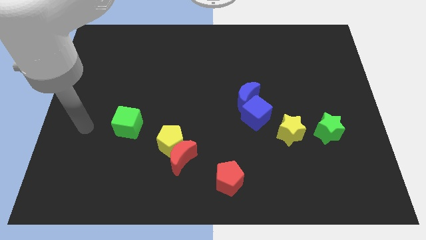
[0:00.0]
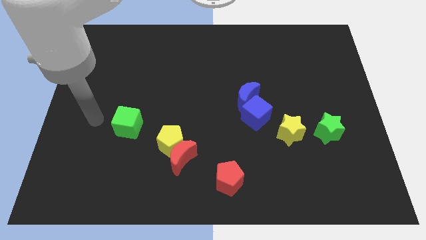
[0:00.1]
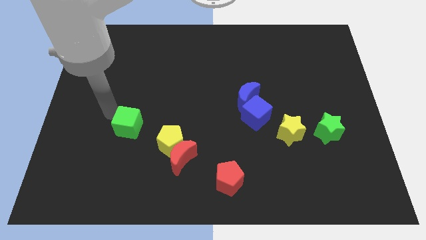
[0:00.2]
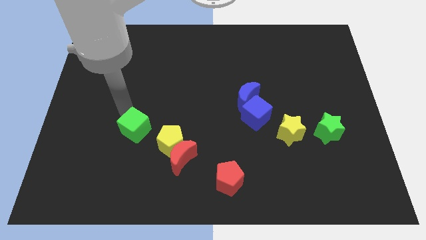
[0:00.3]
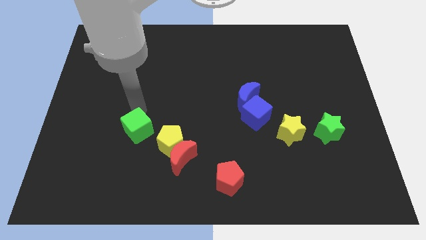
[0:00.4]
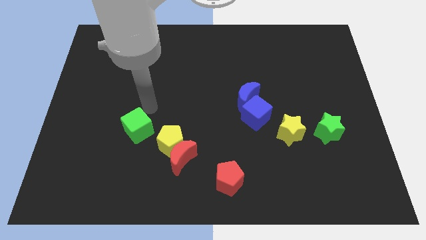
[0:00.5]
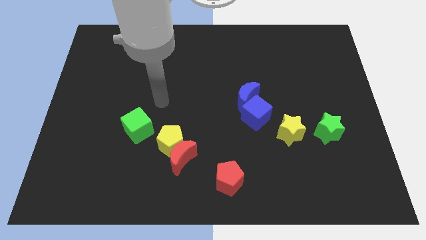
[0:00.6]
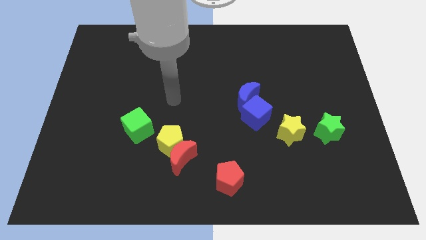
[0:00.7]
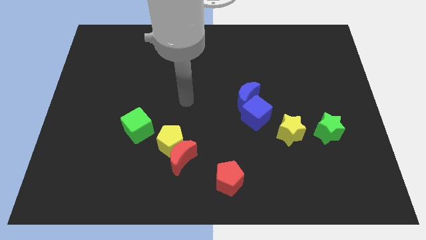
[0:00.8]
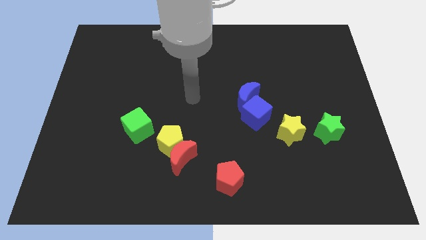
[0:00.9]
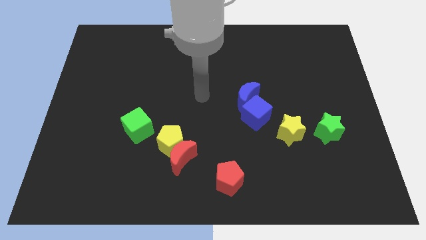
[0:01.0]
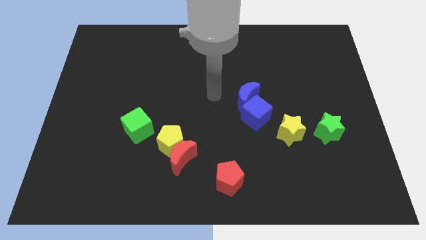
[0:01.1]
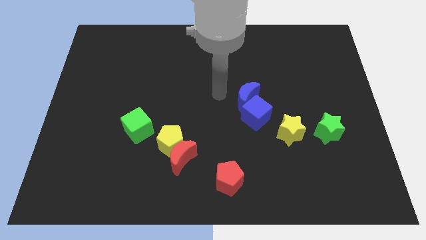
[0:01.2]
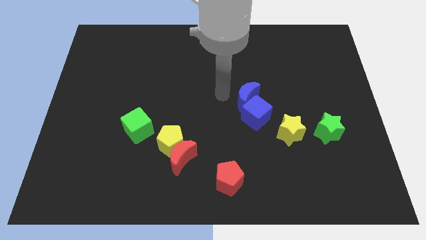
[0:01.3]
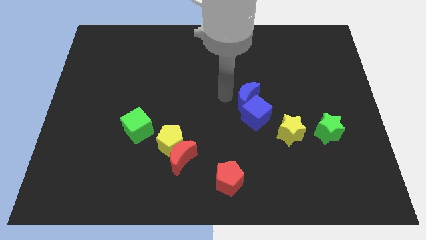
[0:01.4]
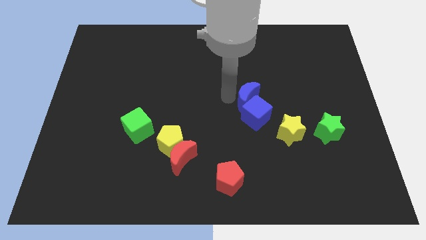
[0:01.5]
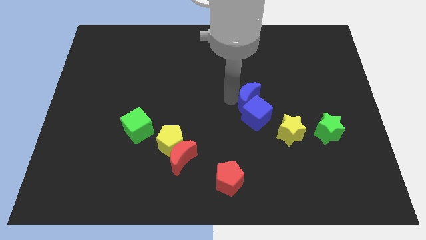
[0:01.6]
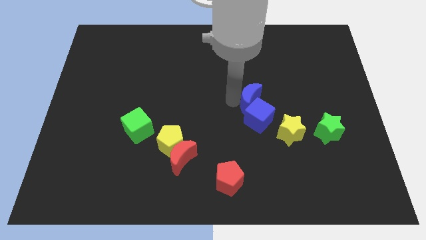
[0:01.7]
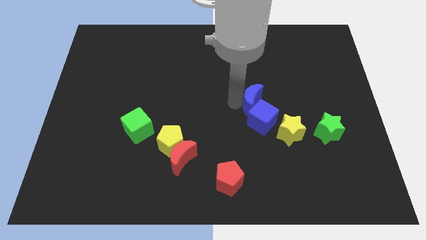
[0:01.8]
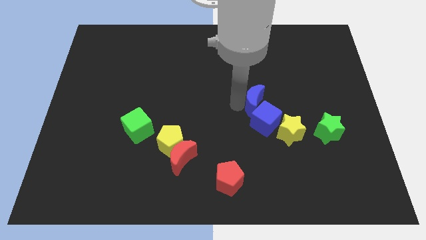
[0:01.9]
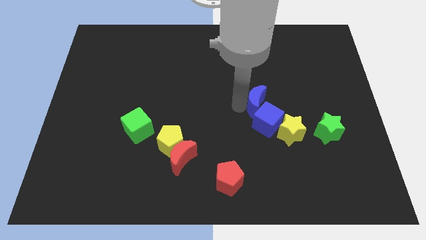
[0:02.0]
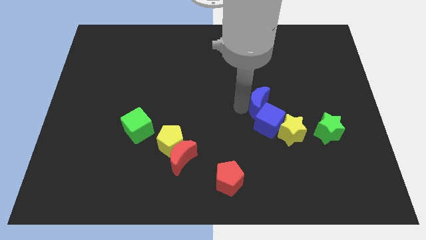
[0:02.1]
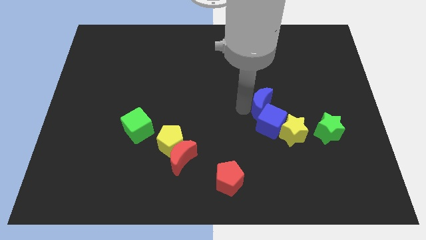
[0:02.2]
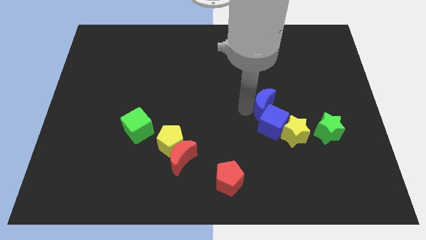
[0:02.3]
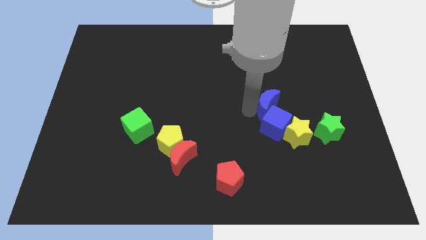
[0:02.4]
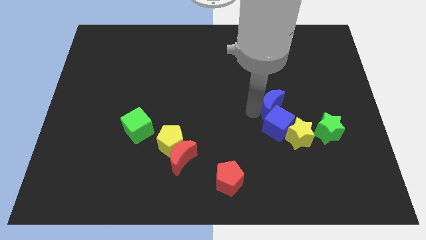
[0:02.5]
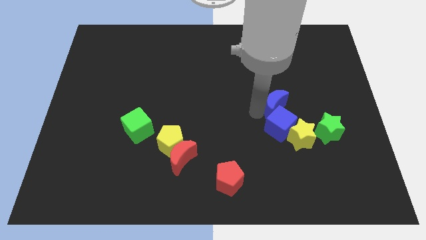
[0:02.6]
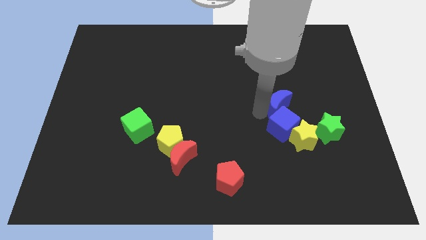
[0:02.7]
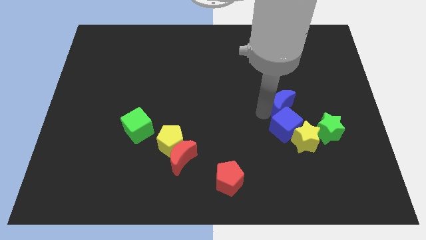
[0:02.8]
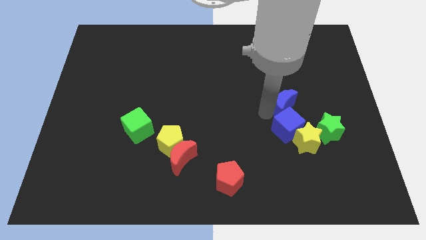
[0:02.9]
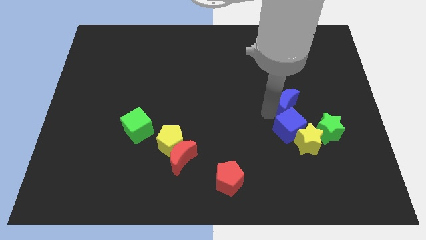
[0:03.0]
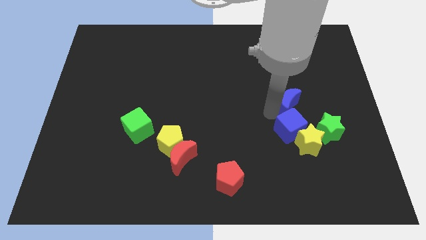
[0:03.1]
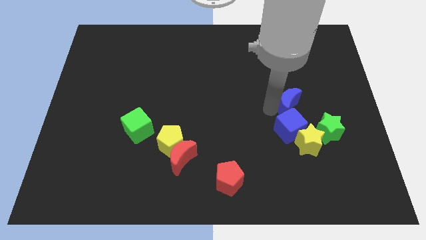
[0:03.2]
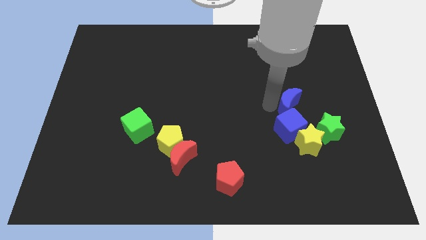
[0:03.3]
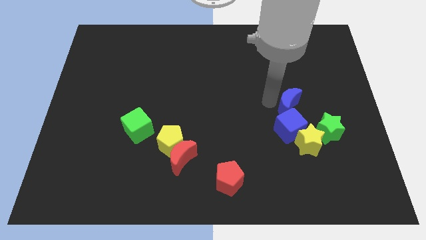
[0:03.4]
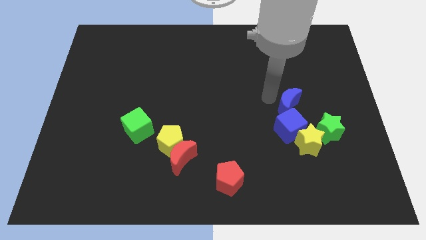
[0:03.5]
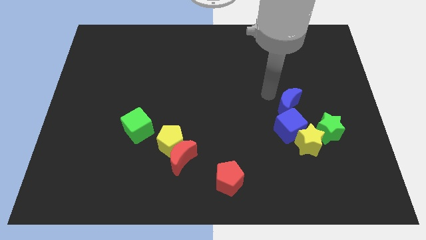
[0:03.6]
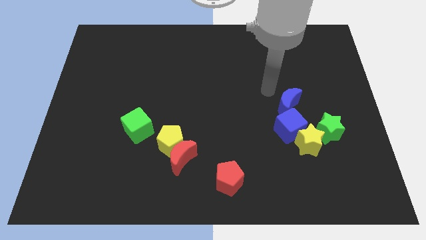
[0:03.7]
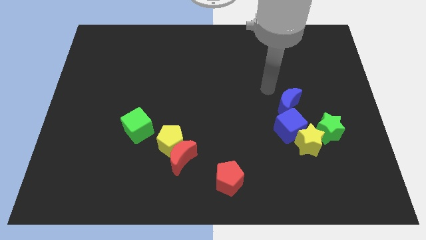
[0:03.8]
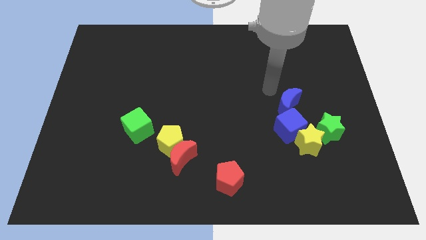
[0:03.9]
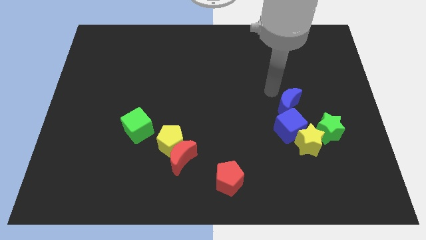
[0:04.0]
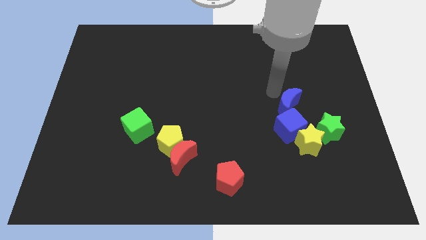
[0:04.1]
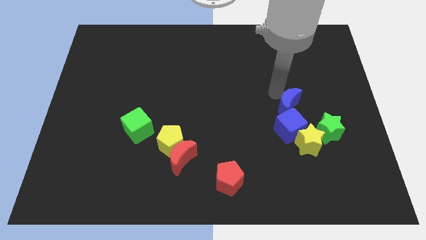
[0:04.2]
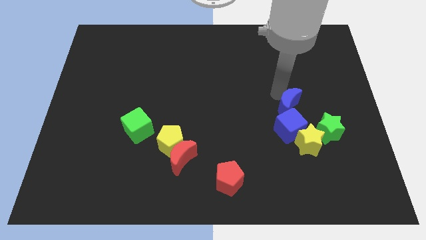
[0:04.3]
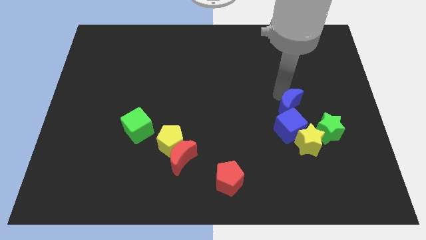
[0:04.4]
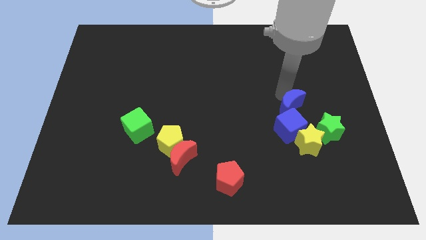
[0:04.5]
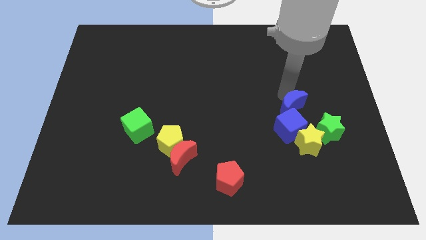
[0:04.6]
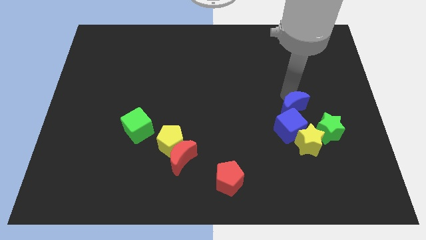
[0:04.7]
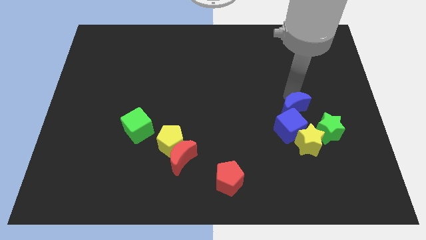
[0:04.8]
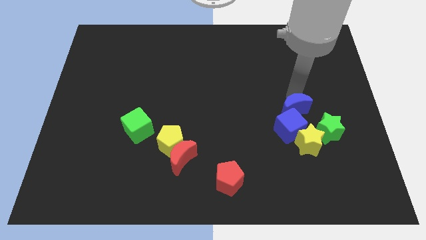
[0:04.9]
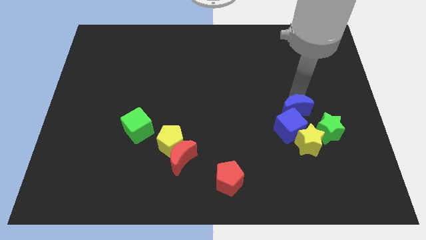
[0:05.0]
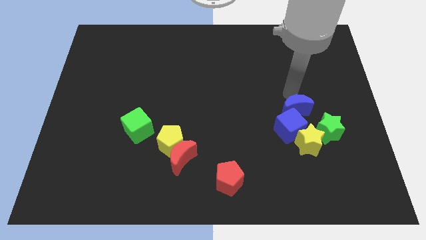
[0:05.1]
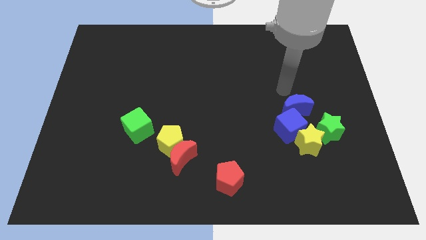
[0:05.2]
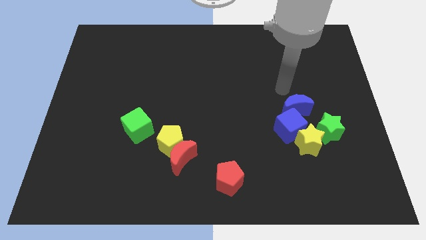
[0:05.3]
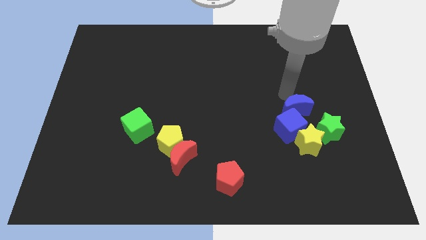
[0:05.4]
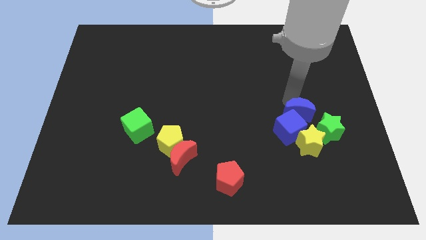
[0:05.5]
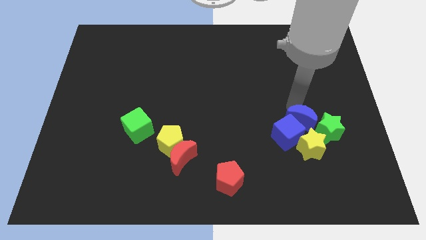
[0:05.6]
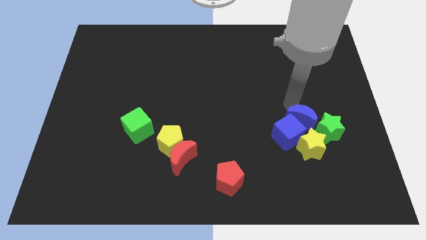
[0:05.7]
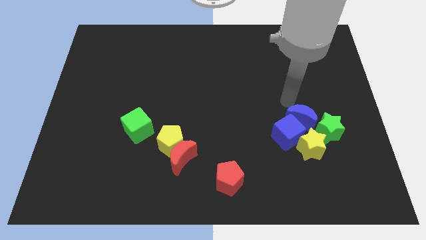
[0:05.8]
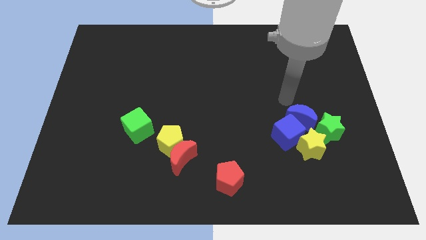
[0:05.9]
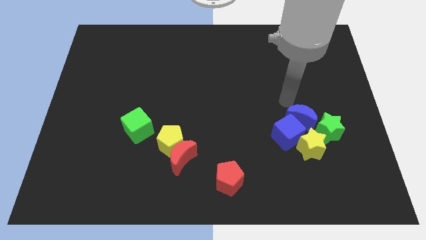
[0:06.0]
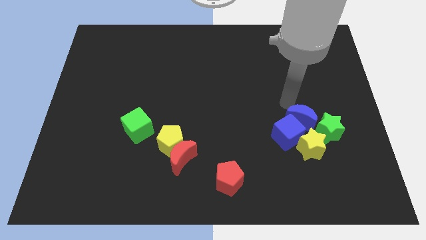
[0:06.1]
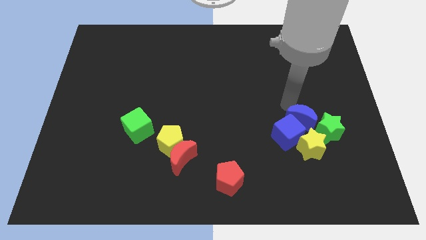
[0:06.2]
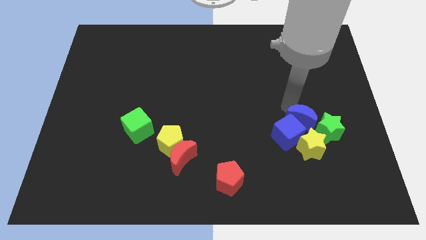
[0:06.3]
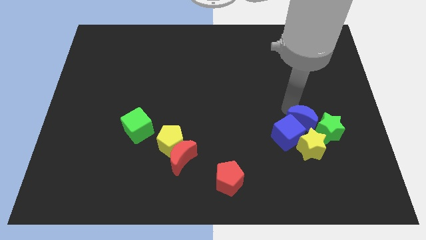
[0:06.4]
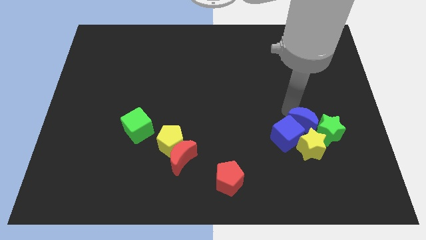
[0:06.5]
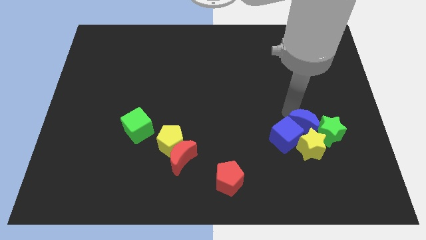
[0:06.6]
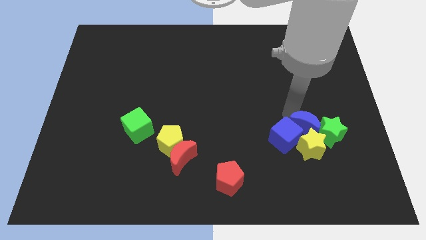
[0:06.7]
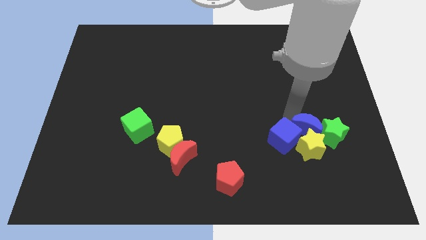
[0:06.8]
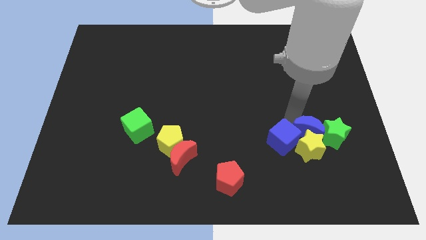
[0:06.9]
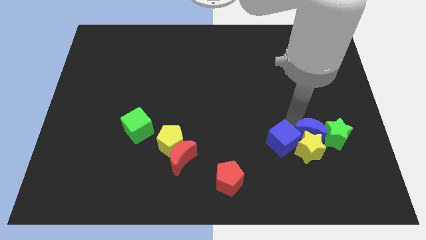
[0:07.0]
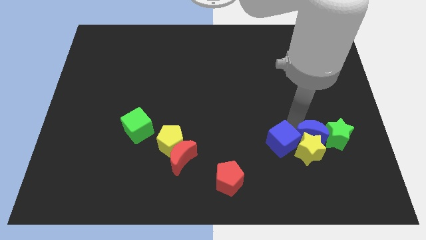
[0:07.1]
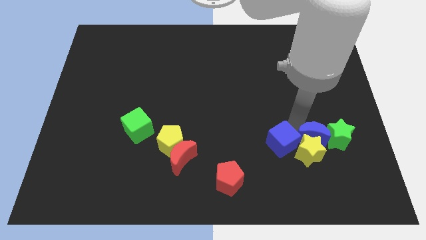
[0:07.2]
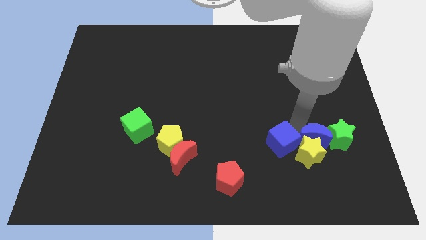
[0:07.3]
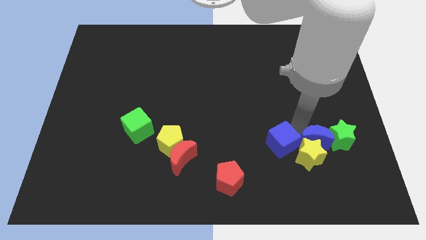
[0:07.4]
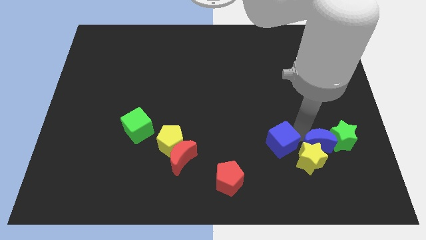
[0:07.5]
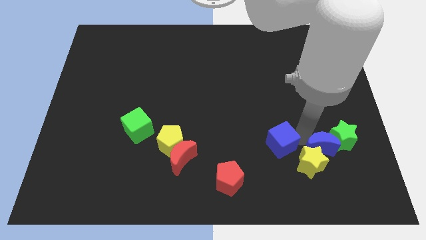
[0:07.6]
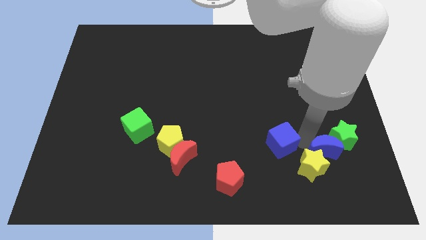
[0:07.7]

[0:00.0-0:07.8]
move the blue moon below the green star
